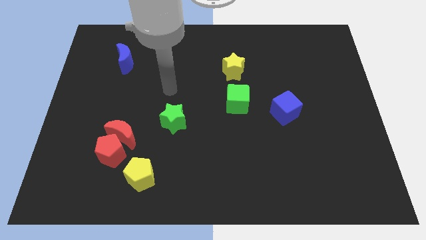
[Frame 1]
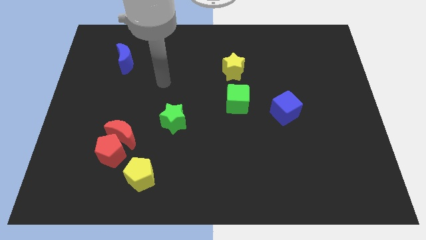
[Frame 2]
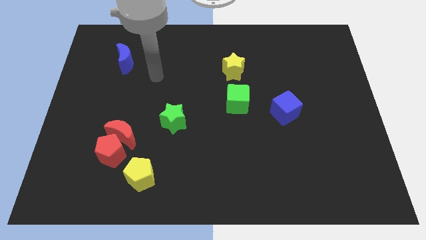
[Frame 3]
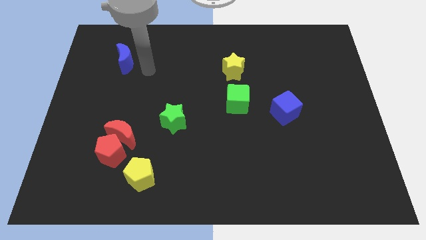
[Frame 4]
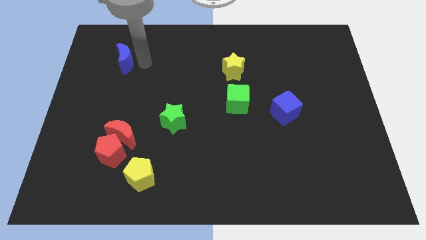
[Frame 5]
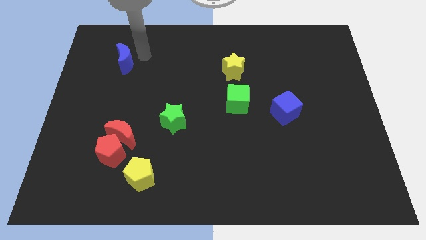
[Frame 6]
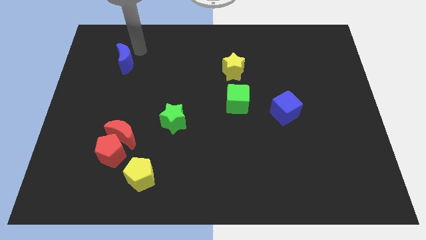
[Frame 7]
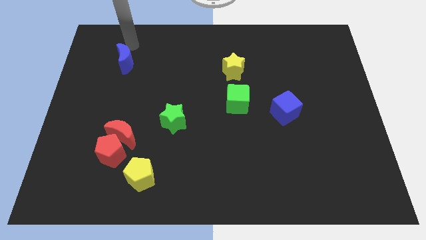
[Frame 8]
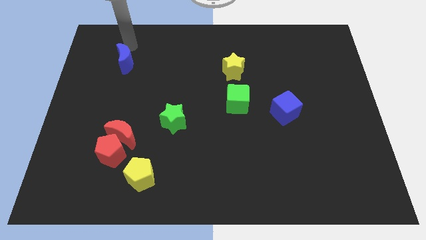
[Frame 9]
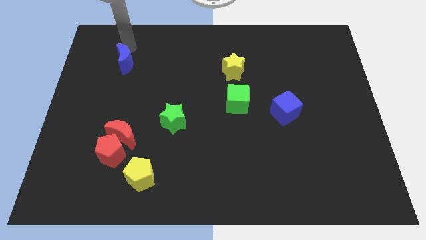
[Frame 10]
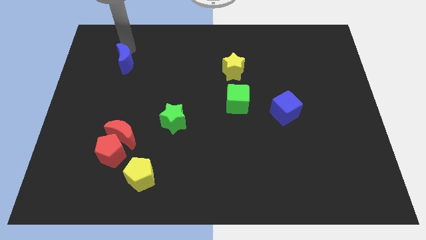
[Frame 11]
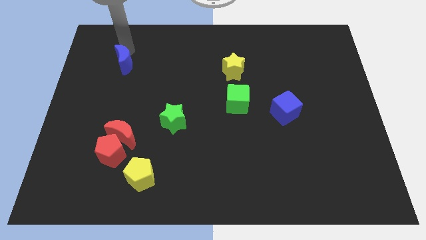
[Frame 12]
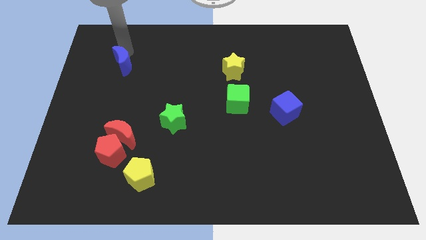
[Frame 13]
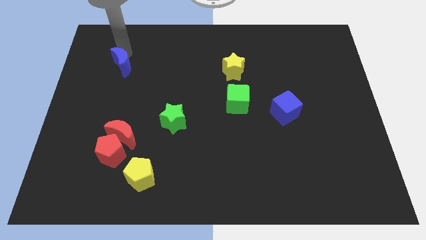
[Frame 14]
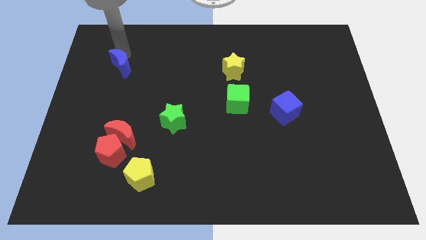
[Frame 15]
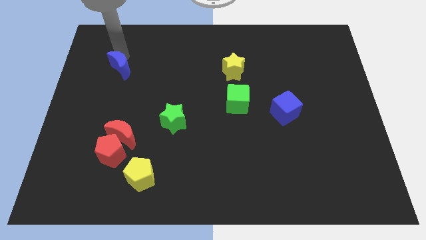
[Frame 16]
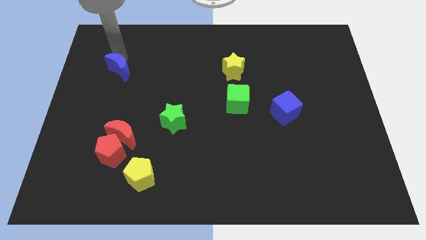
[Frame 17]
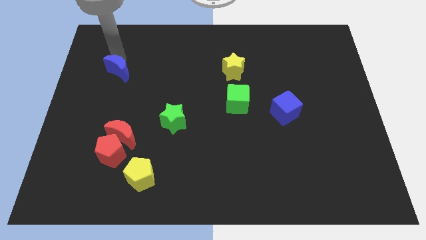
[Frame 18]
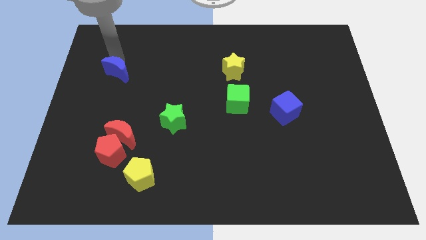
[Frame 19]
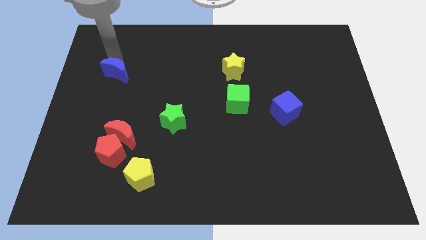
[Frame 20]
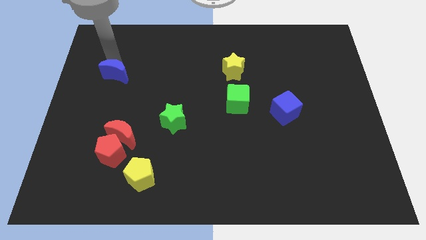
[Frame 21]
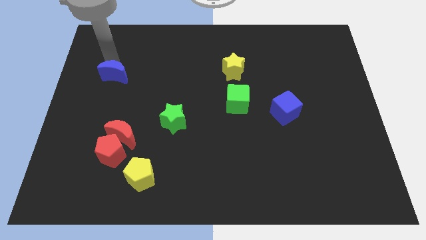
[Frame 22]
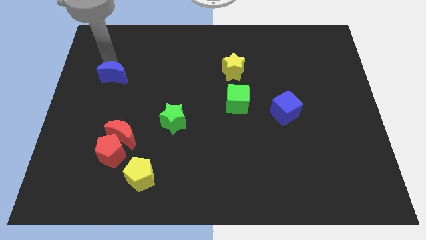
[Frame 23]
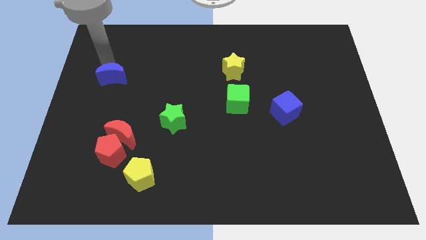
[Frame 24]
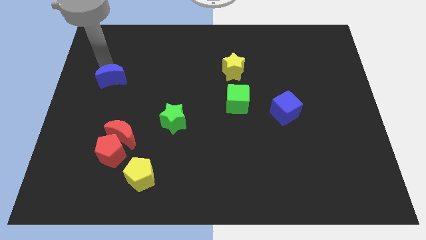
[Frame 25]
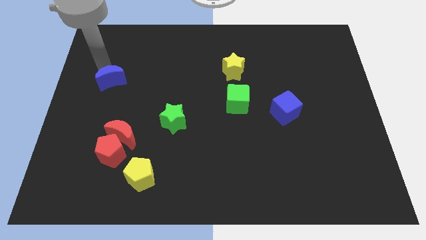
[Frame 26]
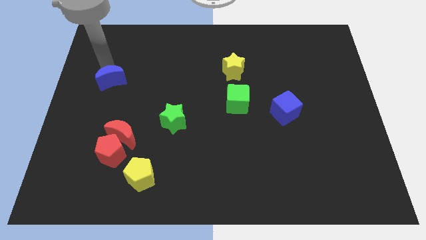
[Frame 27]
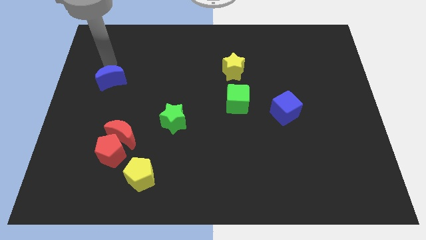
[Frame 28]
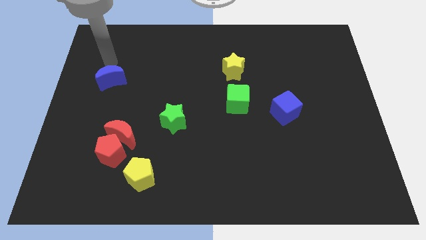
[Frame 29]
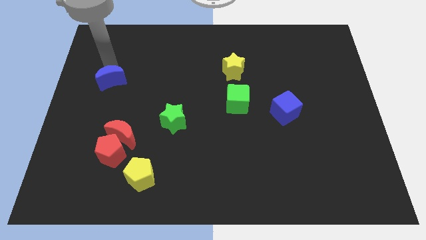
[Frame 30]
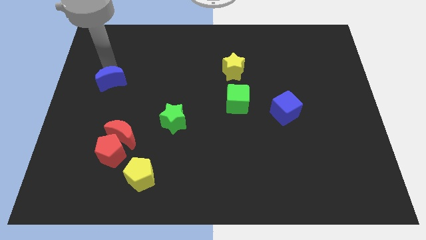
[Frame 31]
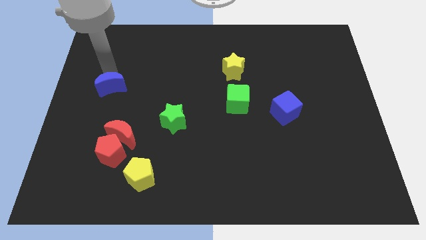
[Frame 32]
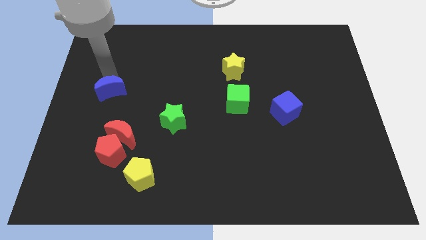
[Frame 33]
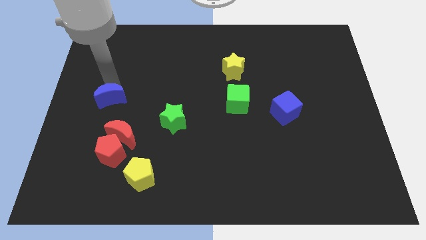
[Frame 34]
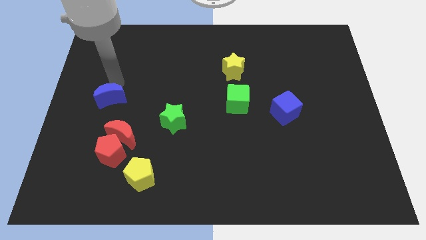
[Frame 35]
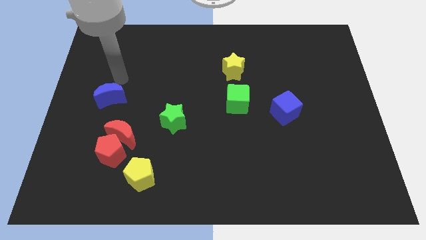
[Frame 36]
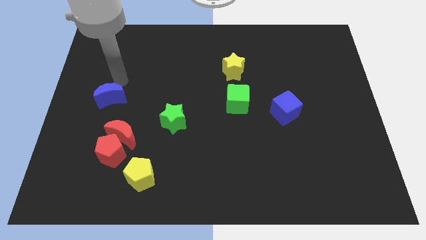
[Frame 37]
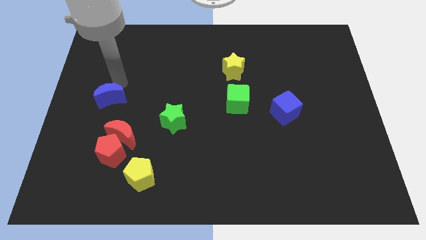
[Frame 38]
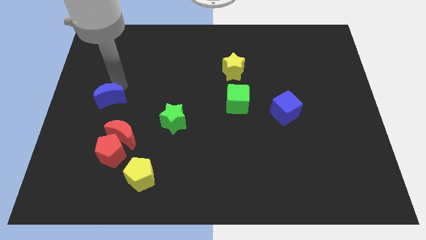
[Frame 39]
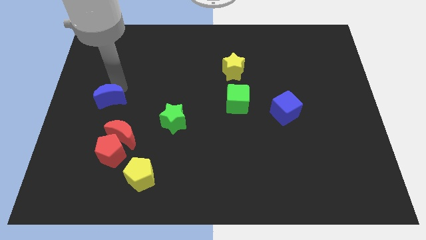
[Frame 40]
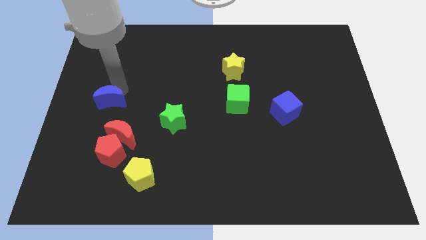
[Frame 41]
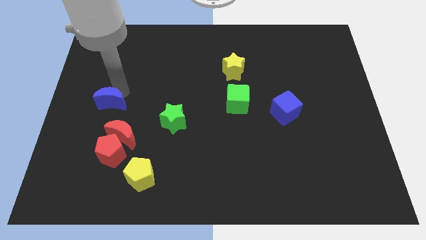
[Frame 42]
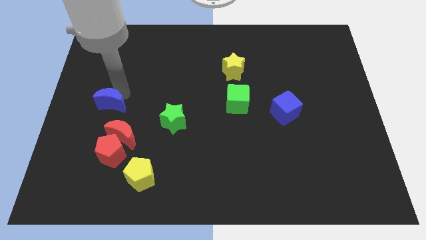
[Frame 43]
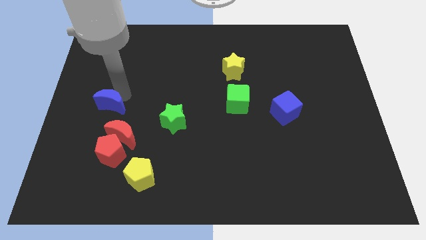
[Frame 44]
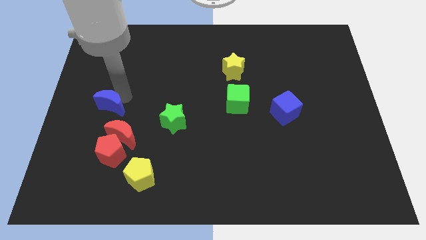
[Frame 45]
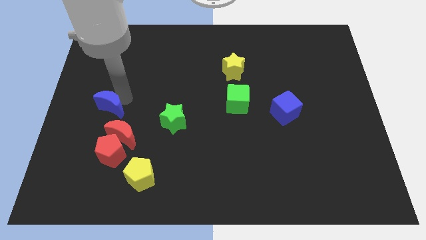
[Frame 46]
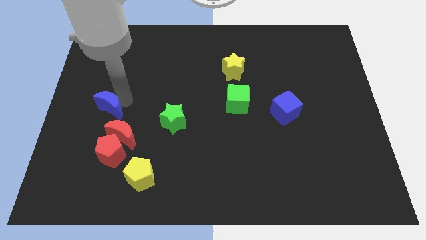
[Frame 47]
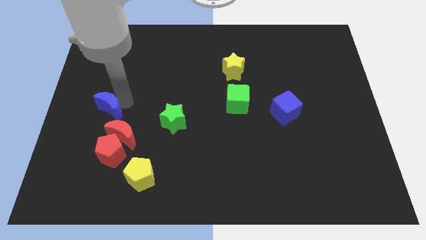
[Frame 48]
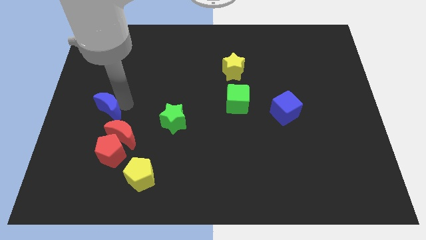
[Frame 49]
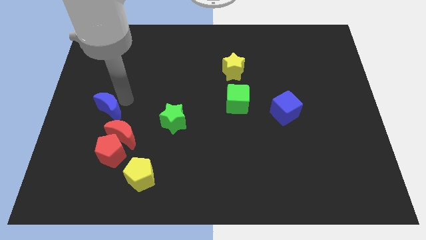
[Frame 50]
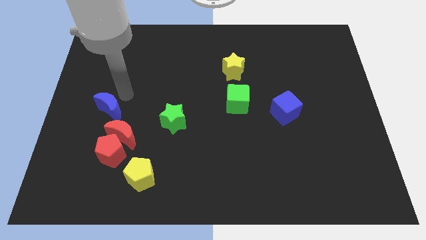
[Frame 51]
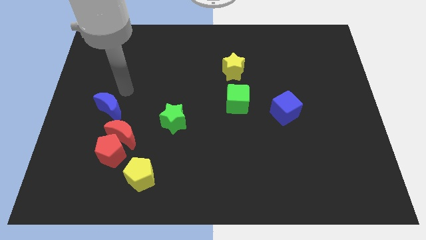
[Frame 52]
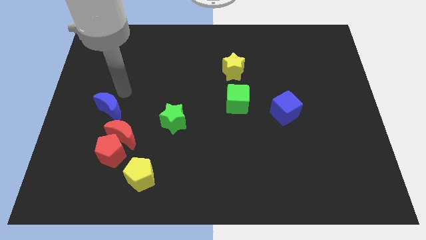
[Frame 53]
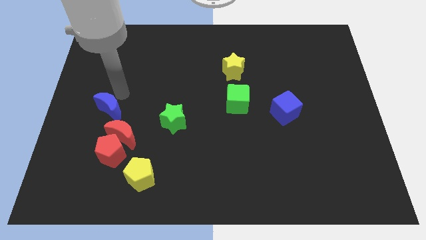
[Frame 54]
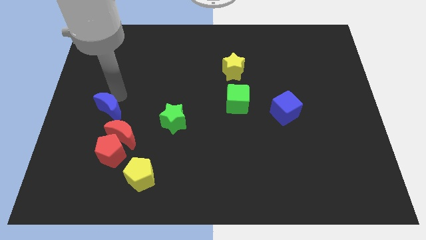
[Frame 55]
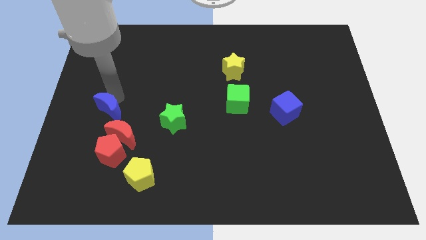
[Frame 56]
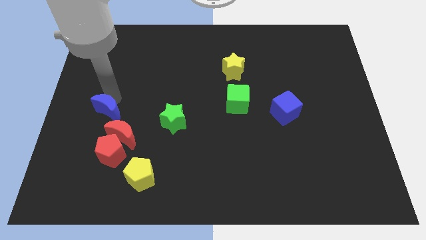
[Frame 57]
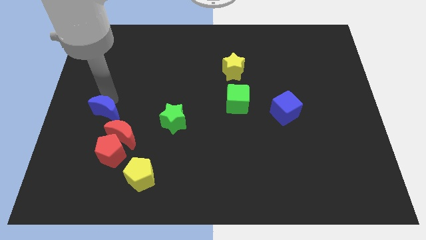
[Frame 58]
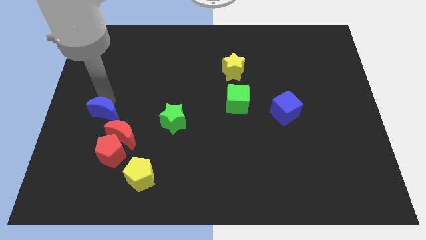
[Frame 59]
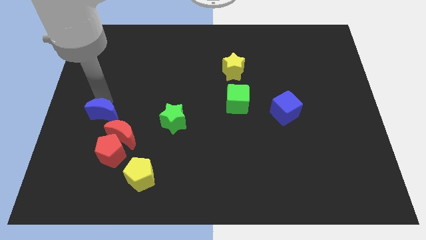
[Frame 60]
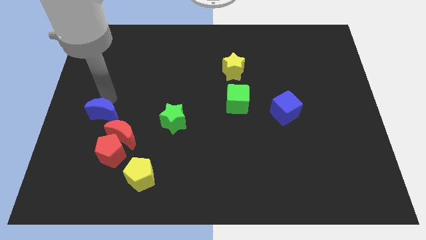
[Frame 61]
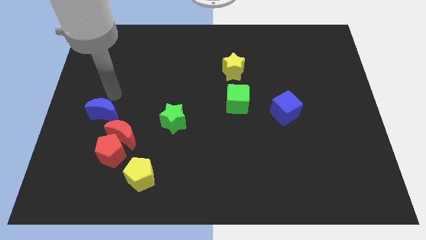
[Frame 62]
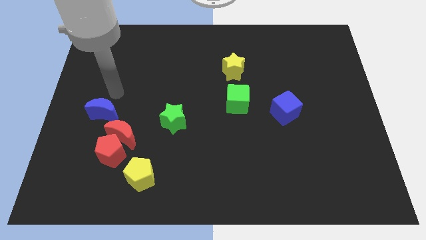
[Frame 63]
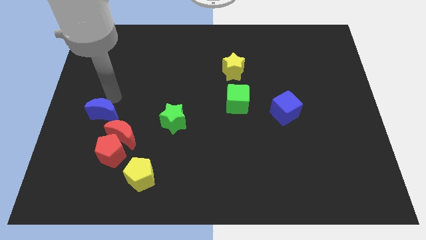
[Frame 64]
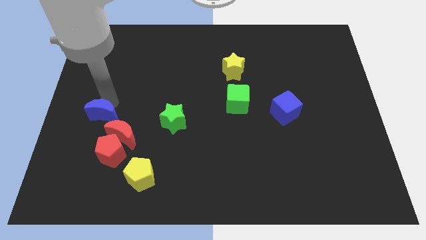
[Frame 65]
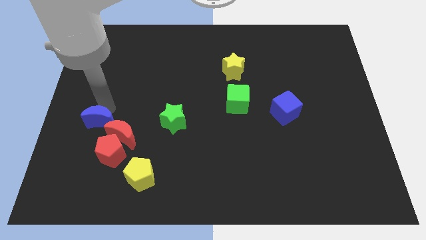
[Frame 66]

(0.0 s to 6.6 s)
slide the blue moon to the top left side of the red pentagon

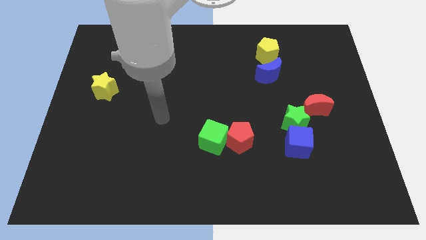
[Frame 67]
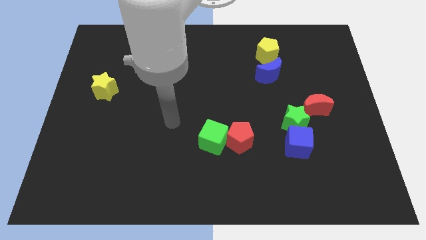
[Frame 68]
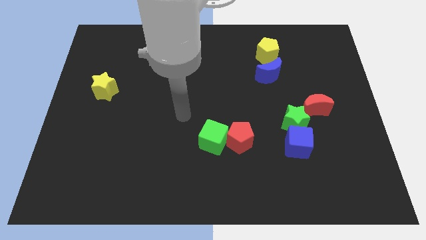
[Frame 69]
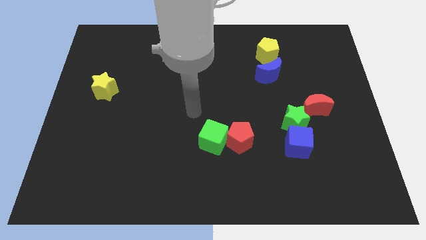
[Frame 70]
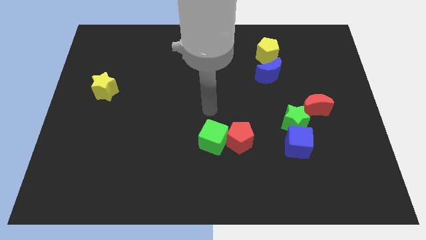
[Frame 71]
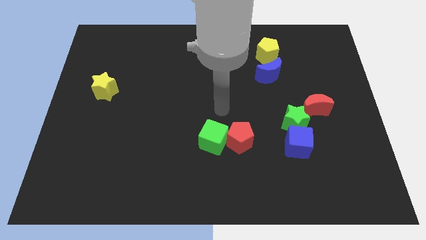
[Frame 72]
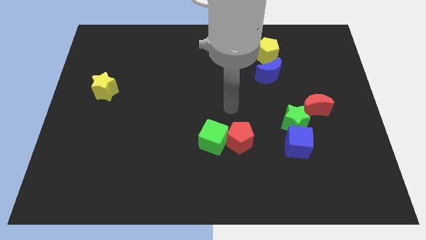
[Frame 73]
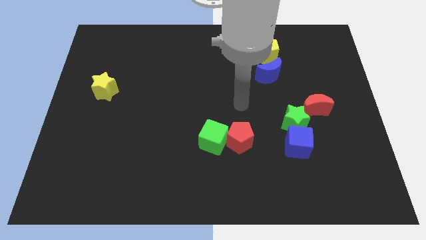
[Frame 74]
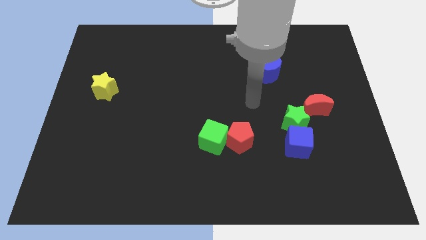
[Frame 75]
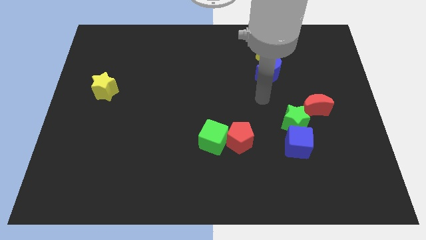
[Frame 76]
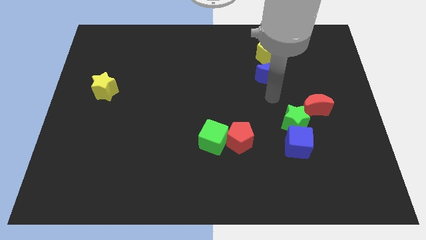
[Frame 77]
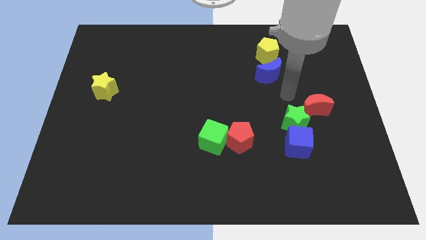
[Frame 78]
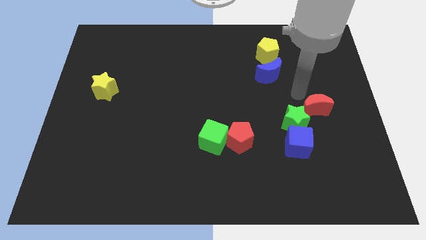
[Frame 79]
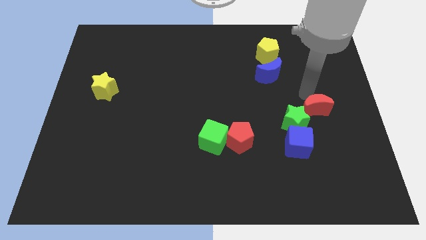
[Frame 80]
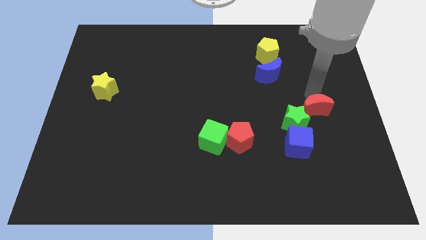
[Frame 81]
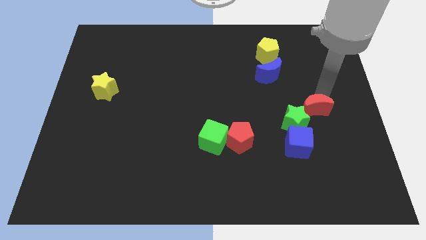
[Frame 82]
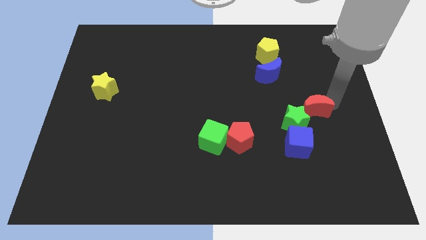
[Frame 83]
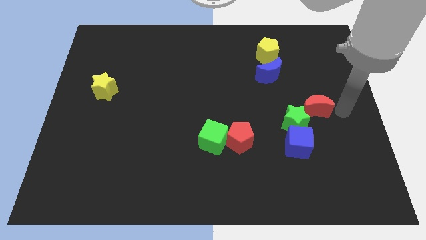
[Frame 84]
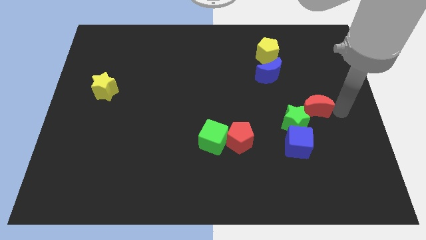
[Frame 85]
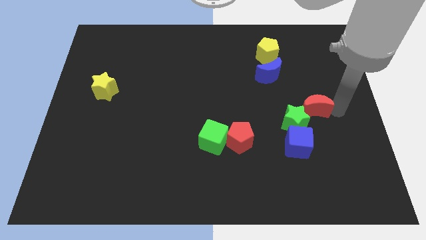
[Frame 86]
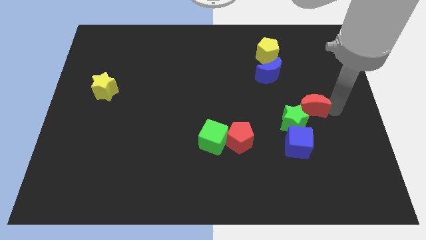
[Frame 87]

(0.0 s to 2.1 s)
slide the red moon to the top of the blue cube
